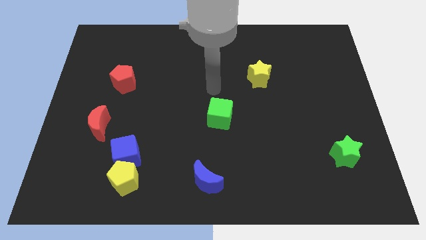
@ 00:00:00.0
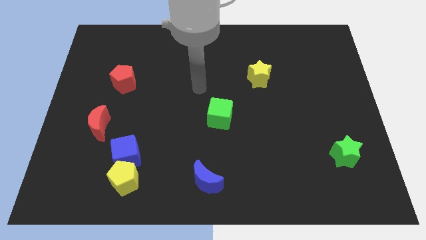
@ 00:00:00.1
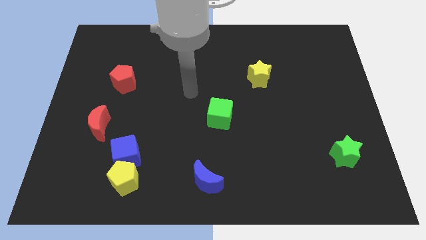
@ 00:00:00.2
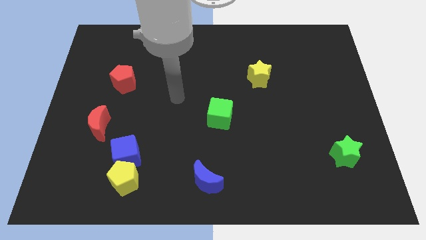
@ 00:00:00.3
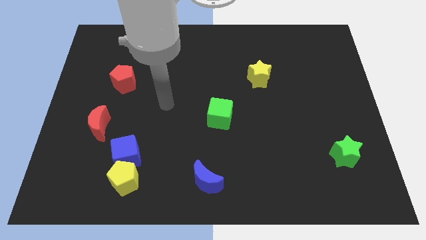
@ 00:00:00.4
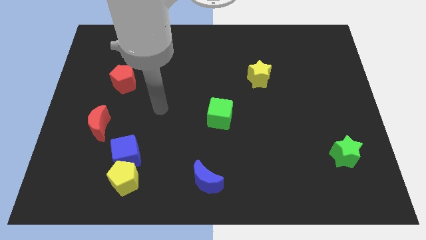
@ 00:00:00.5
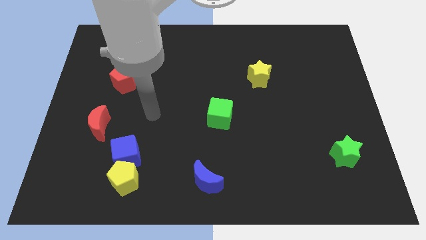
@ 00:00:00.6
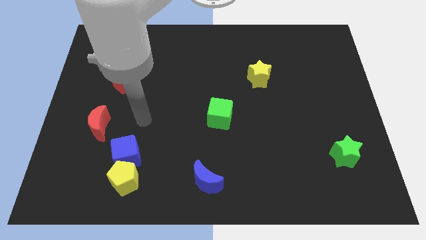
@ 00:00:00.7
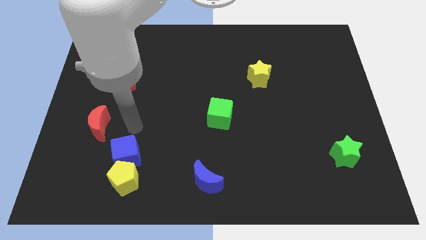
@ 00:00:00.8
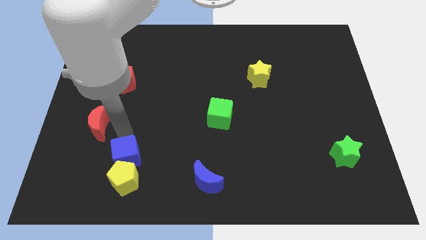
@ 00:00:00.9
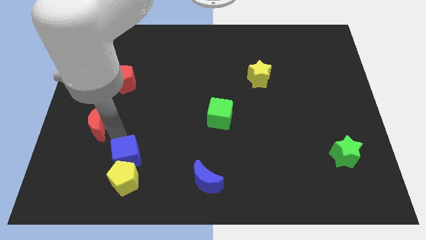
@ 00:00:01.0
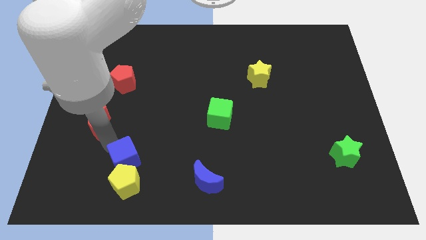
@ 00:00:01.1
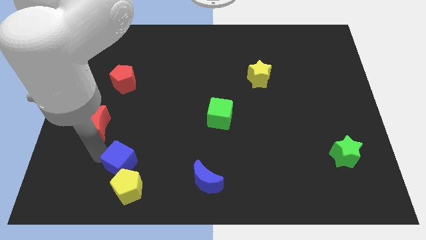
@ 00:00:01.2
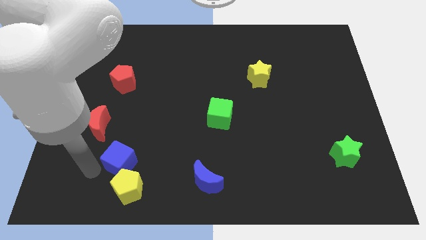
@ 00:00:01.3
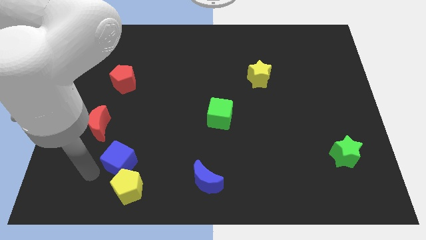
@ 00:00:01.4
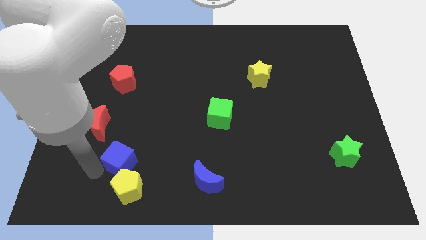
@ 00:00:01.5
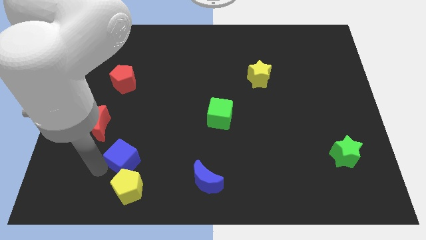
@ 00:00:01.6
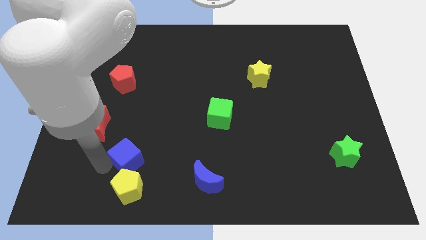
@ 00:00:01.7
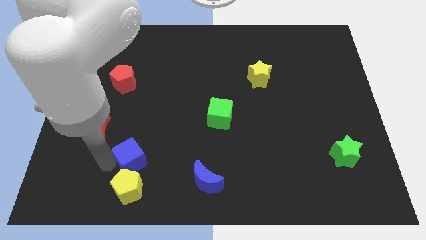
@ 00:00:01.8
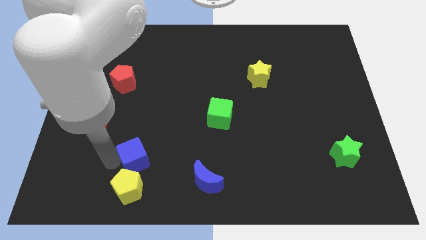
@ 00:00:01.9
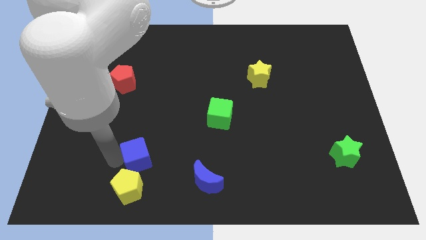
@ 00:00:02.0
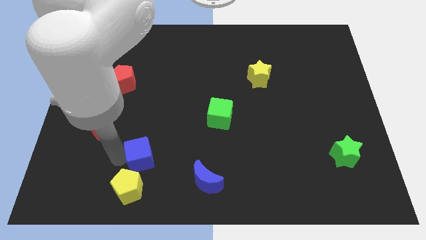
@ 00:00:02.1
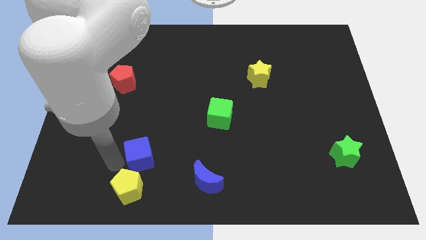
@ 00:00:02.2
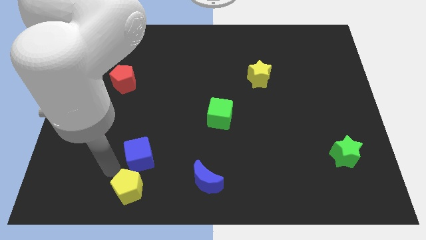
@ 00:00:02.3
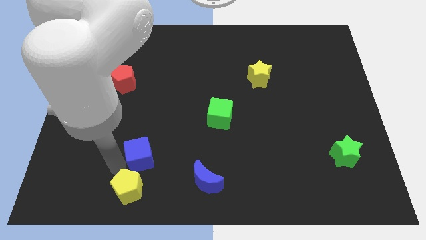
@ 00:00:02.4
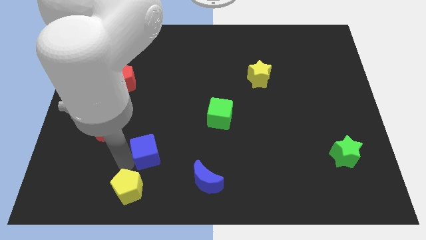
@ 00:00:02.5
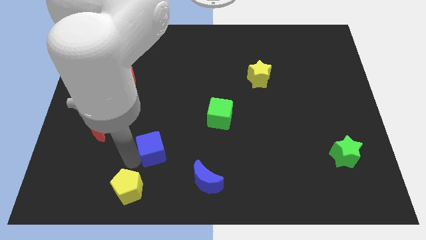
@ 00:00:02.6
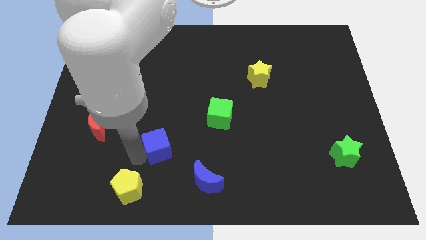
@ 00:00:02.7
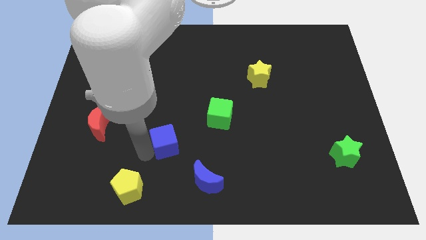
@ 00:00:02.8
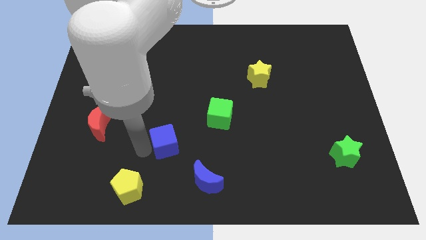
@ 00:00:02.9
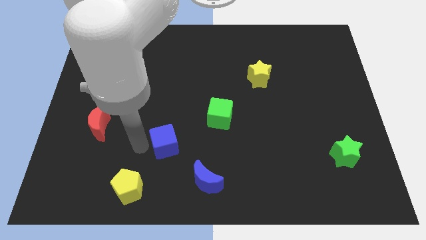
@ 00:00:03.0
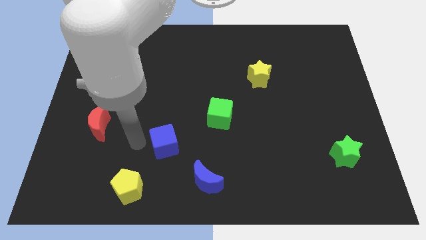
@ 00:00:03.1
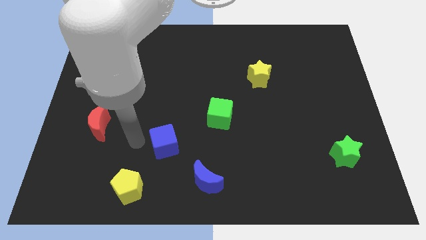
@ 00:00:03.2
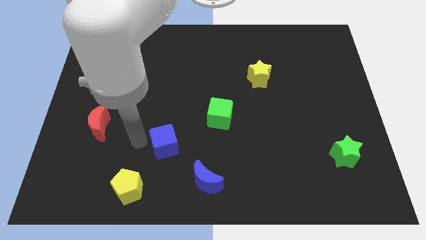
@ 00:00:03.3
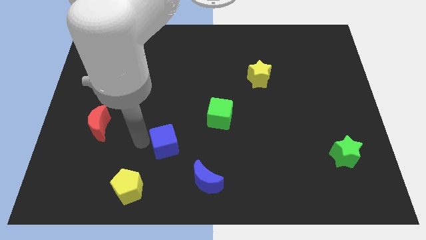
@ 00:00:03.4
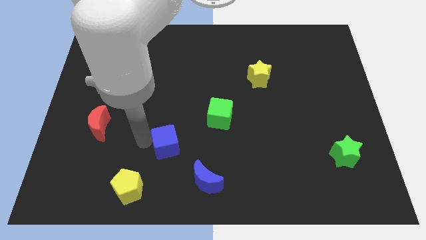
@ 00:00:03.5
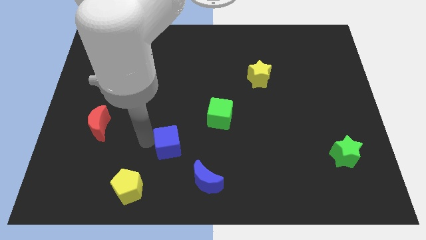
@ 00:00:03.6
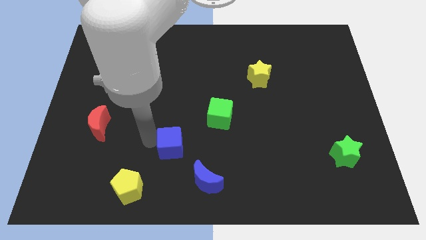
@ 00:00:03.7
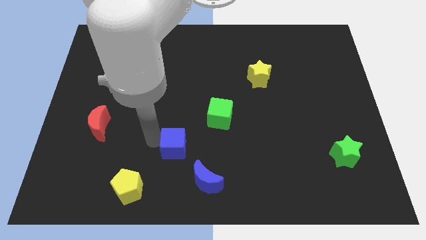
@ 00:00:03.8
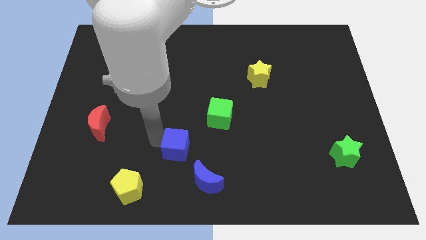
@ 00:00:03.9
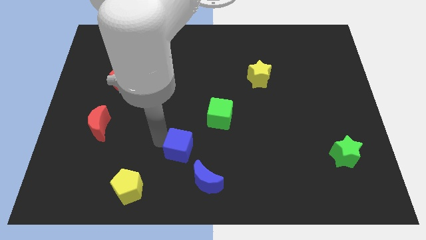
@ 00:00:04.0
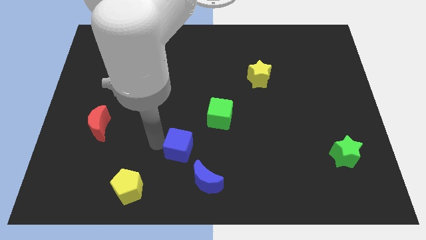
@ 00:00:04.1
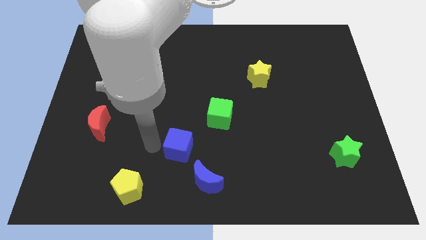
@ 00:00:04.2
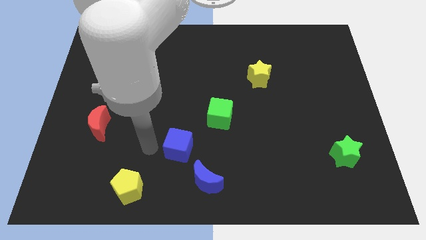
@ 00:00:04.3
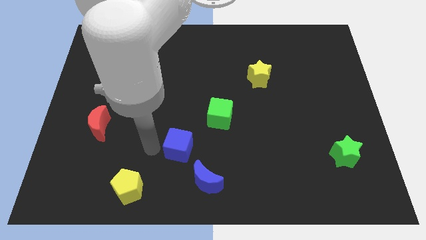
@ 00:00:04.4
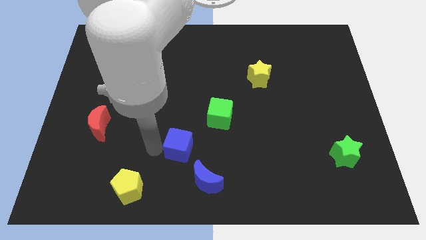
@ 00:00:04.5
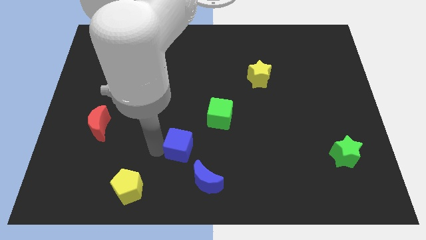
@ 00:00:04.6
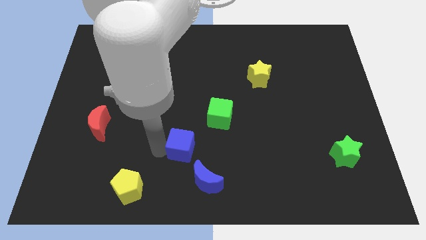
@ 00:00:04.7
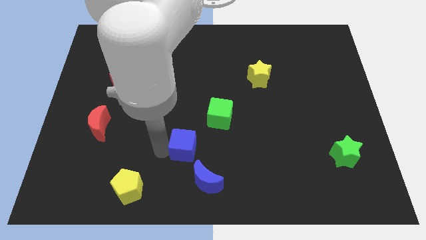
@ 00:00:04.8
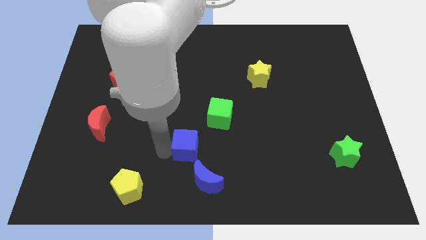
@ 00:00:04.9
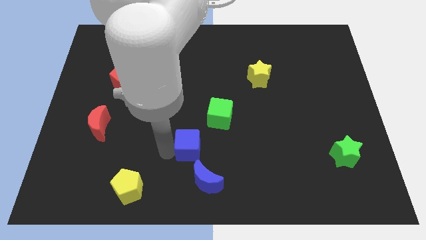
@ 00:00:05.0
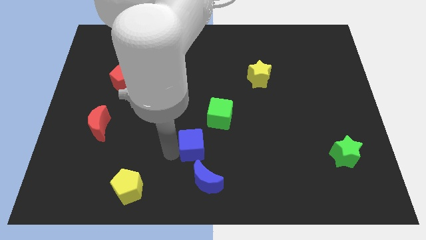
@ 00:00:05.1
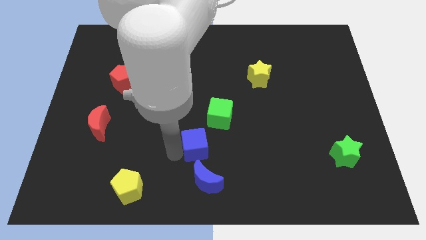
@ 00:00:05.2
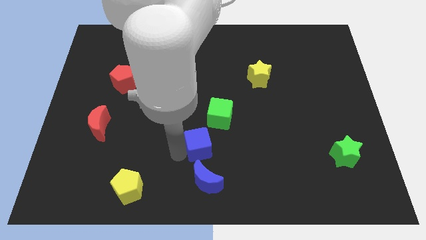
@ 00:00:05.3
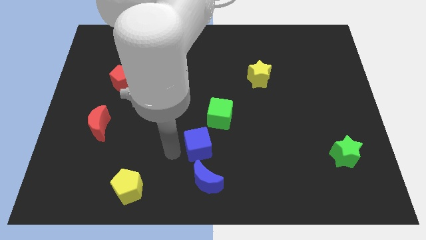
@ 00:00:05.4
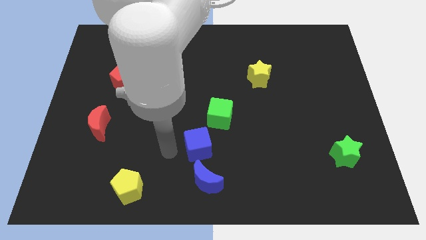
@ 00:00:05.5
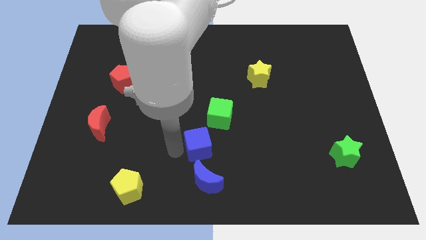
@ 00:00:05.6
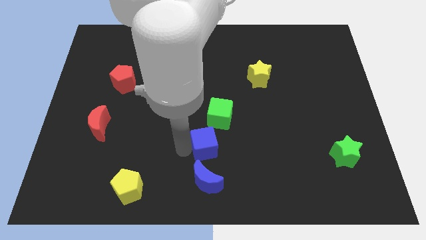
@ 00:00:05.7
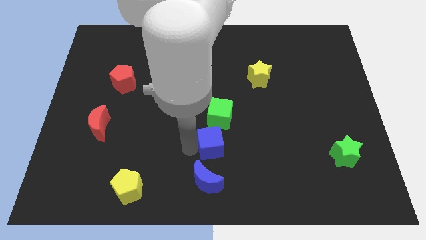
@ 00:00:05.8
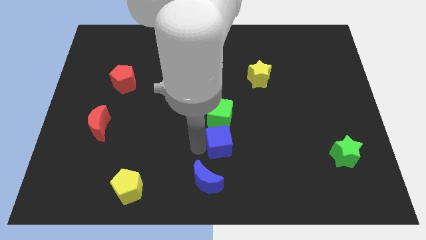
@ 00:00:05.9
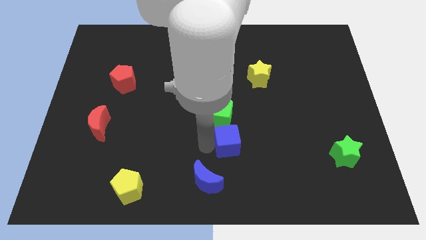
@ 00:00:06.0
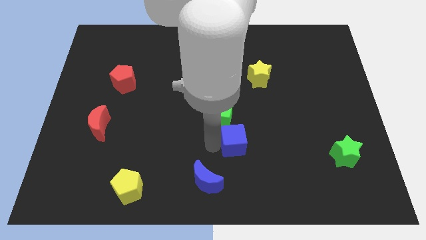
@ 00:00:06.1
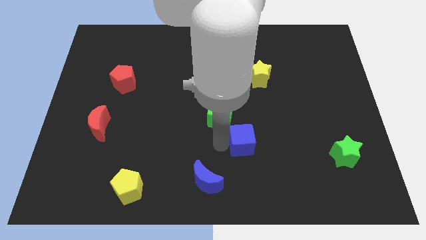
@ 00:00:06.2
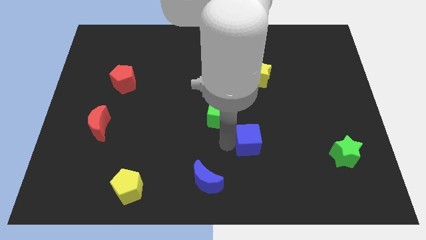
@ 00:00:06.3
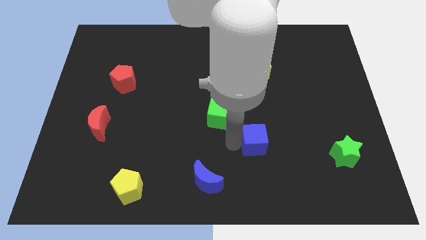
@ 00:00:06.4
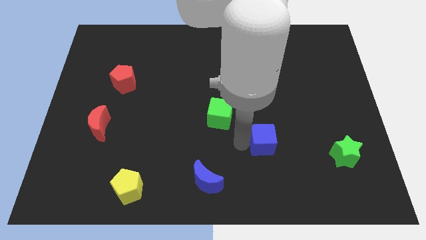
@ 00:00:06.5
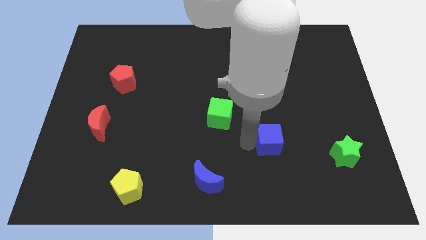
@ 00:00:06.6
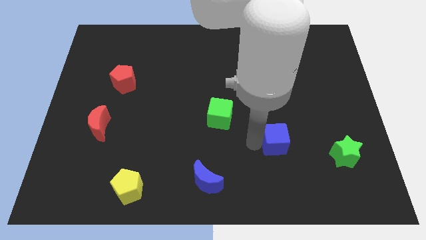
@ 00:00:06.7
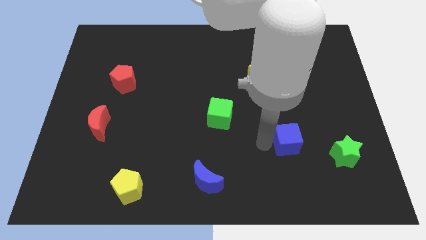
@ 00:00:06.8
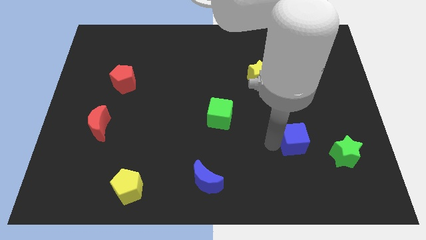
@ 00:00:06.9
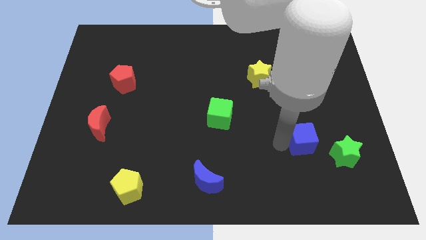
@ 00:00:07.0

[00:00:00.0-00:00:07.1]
put the blue cube to the top left of the green star
